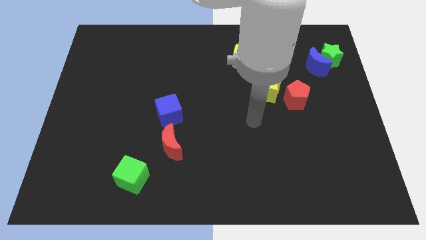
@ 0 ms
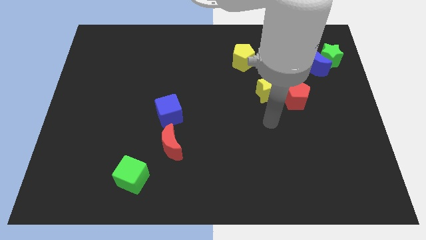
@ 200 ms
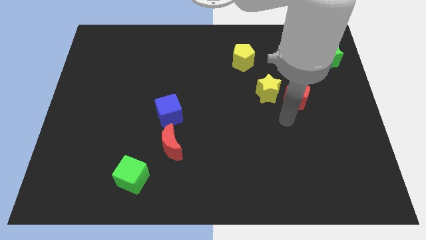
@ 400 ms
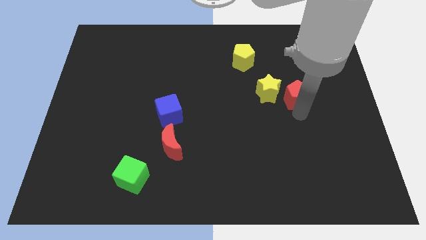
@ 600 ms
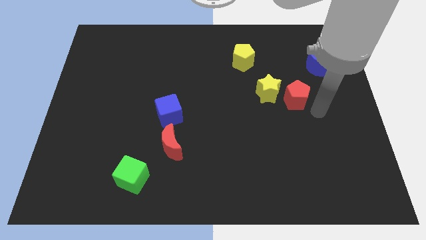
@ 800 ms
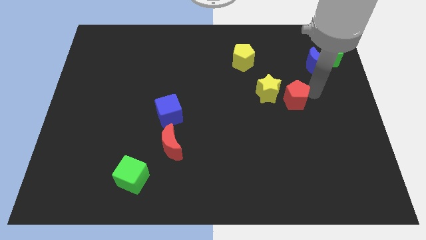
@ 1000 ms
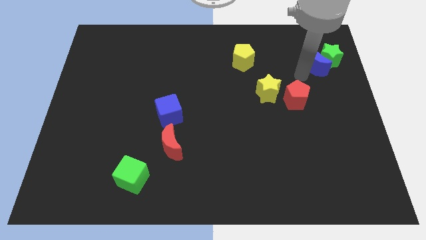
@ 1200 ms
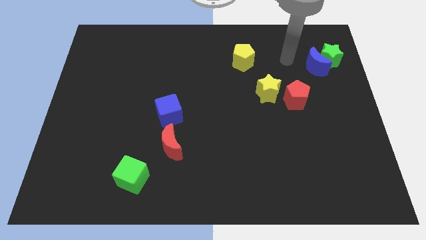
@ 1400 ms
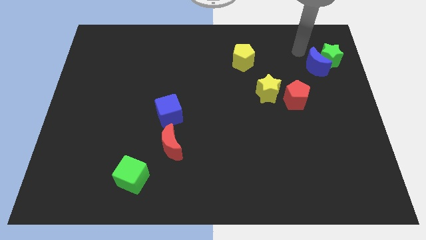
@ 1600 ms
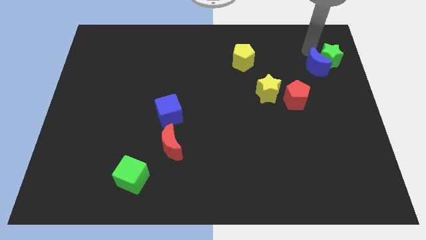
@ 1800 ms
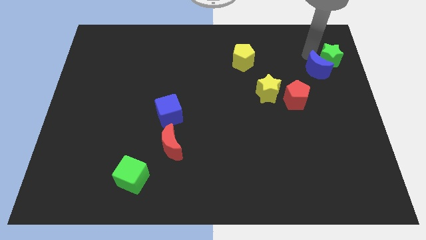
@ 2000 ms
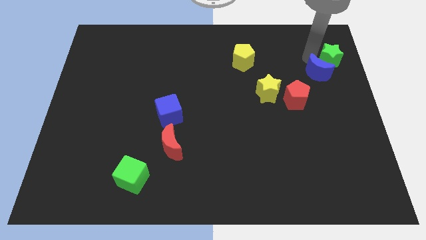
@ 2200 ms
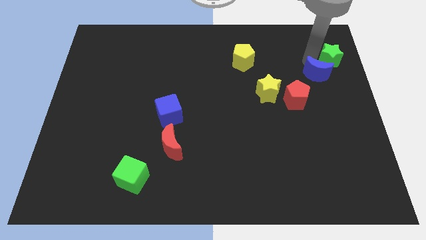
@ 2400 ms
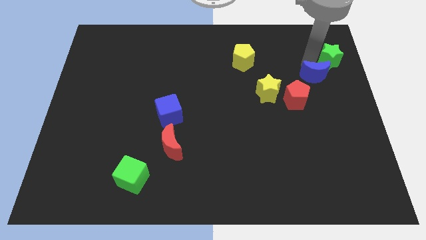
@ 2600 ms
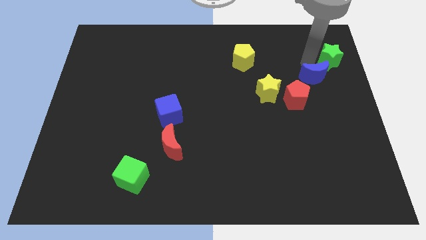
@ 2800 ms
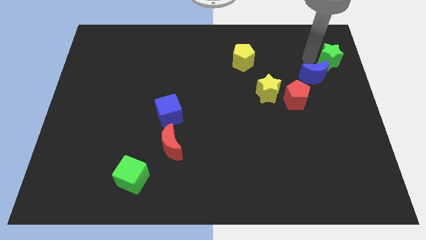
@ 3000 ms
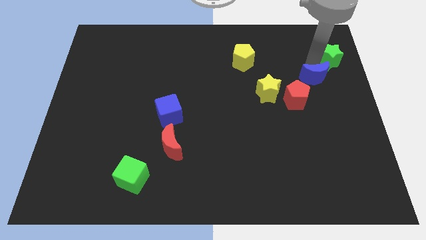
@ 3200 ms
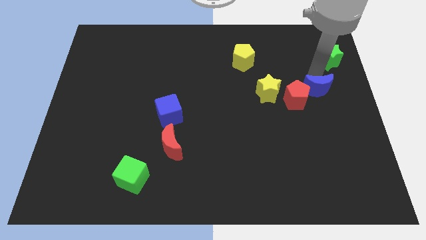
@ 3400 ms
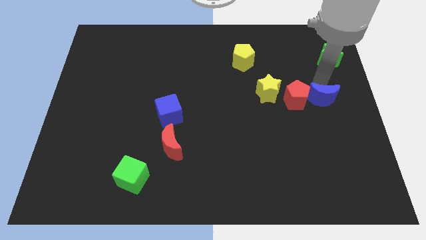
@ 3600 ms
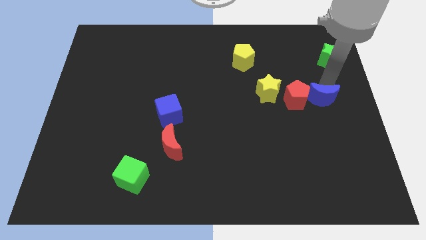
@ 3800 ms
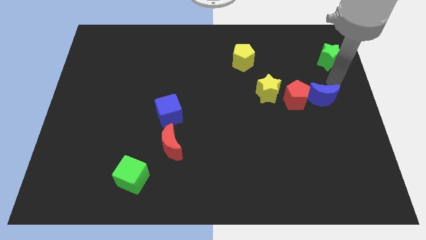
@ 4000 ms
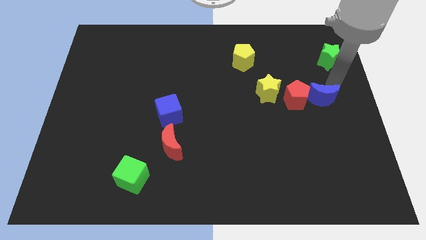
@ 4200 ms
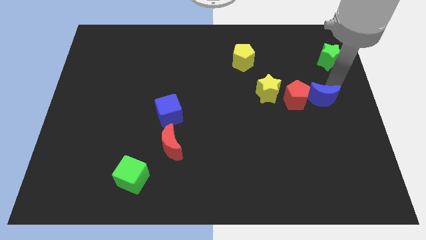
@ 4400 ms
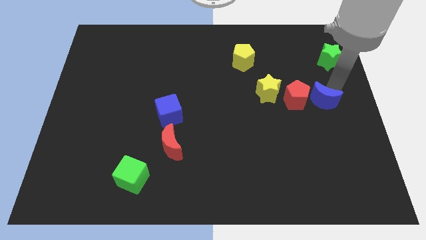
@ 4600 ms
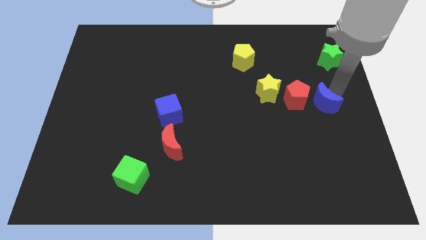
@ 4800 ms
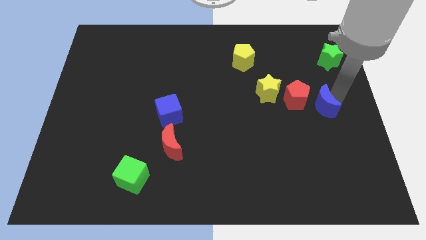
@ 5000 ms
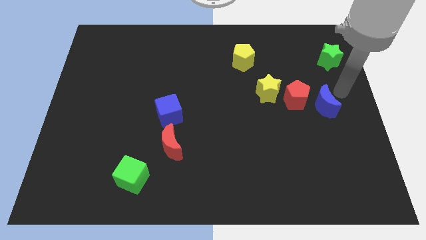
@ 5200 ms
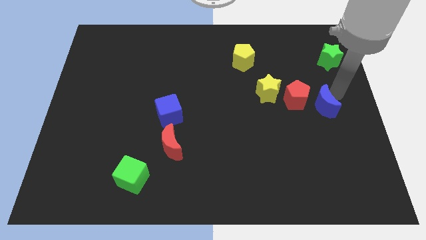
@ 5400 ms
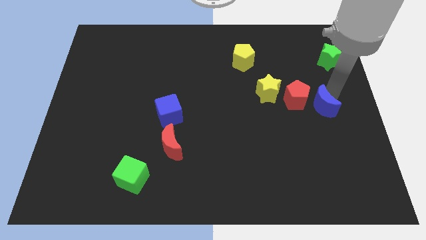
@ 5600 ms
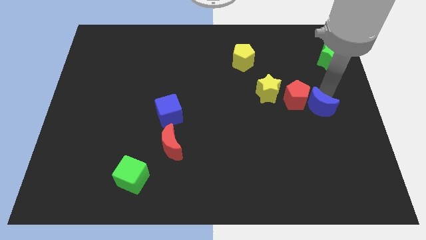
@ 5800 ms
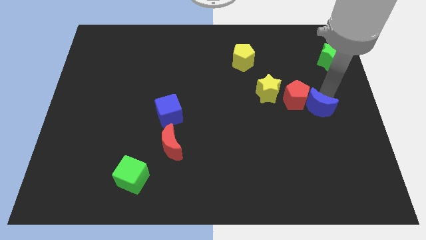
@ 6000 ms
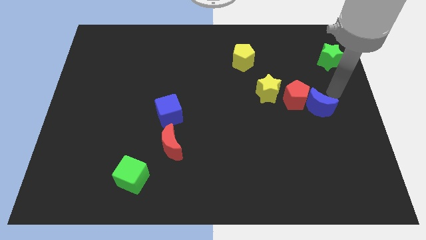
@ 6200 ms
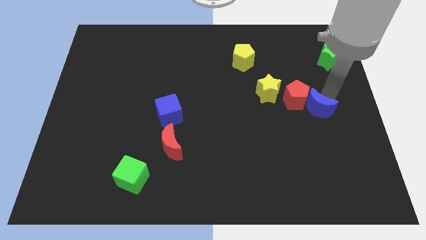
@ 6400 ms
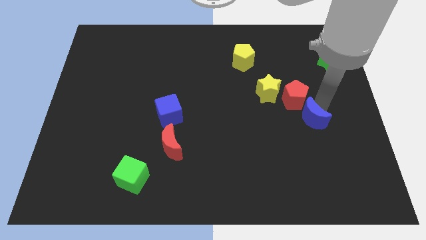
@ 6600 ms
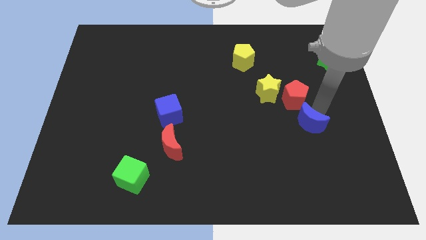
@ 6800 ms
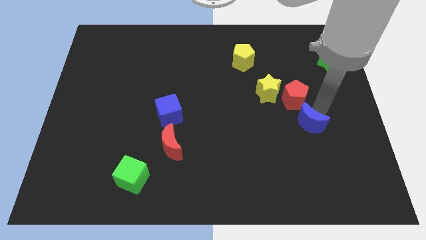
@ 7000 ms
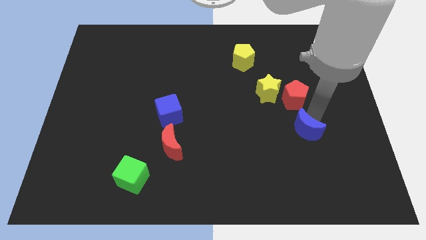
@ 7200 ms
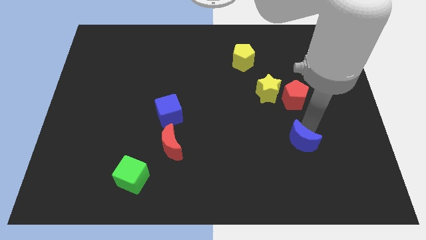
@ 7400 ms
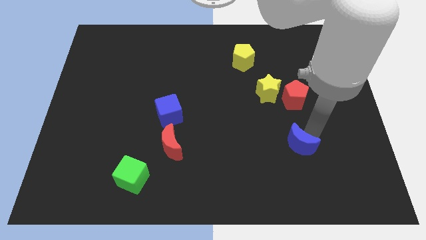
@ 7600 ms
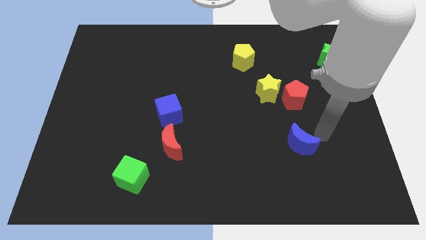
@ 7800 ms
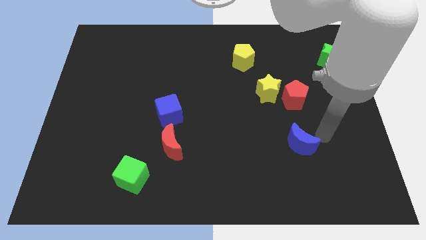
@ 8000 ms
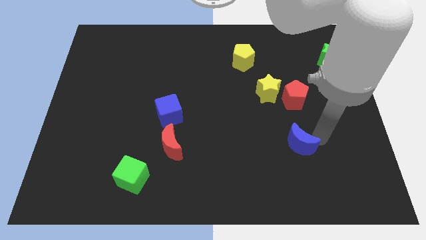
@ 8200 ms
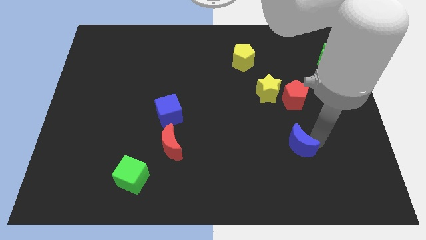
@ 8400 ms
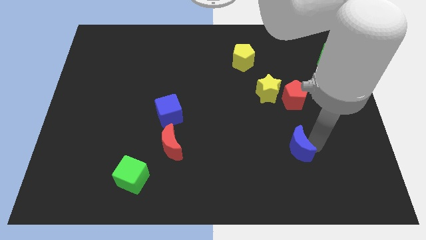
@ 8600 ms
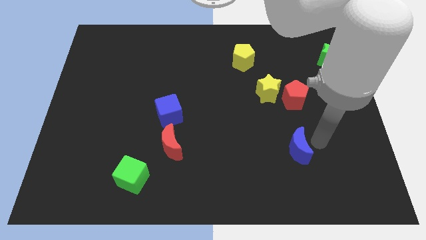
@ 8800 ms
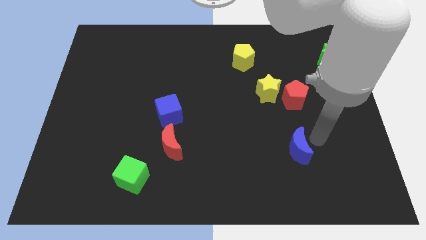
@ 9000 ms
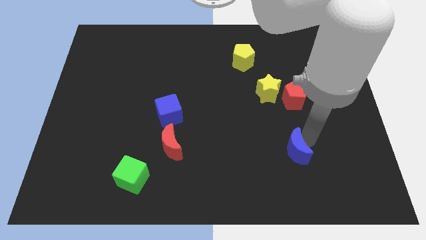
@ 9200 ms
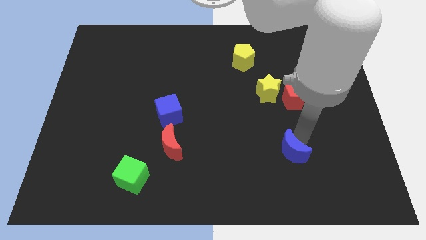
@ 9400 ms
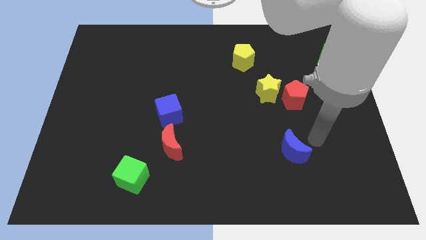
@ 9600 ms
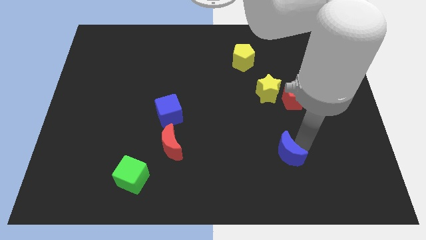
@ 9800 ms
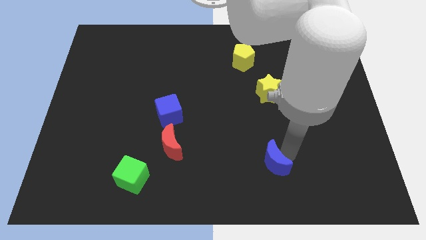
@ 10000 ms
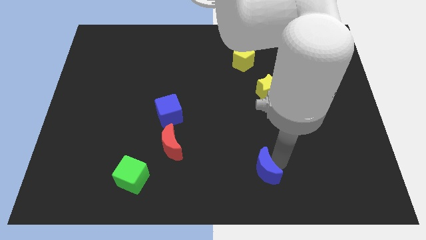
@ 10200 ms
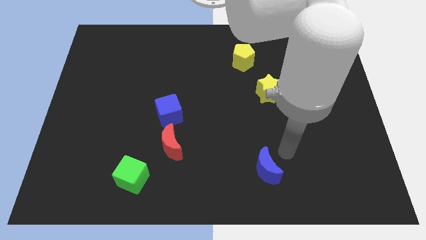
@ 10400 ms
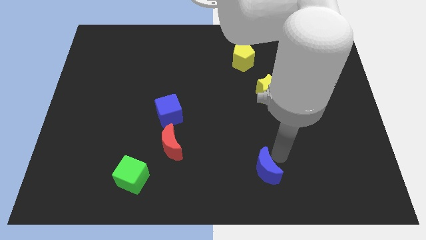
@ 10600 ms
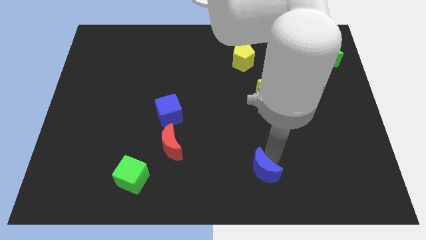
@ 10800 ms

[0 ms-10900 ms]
push the blue moon to the bottom

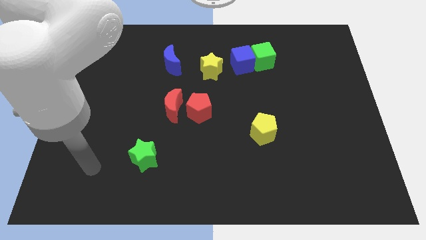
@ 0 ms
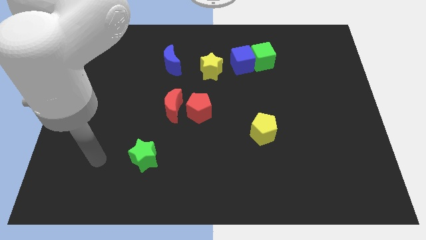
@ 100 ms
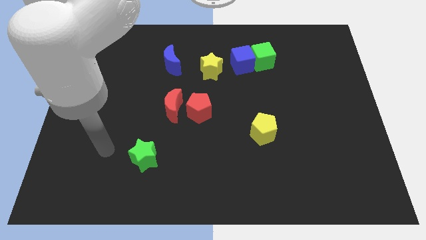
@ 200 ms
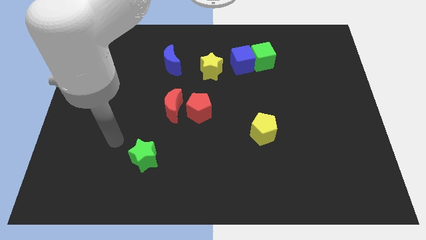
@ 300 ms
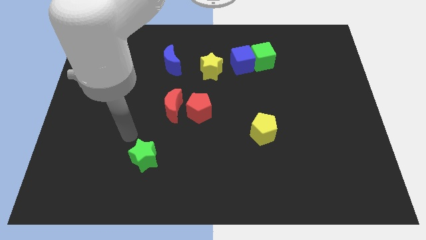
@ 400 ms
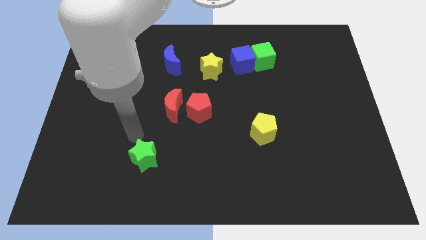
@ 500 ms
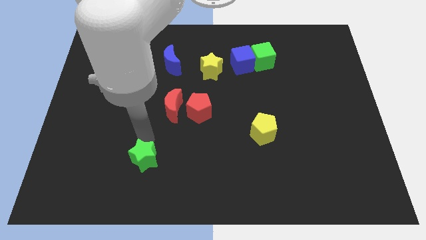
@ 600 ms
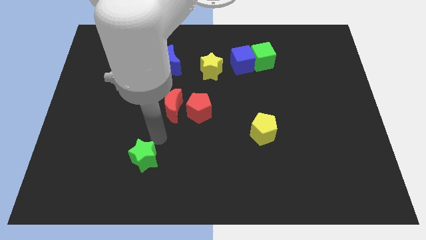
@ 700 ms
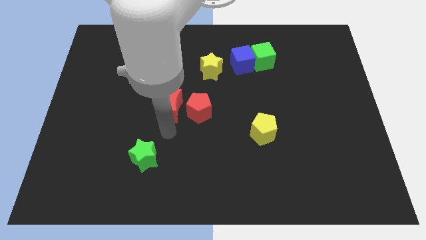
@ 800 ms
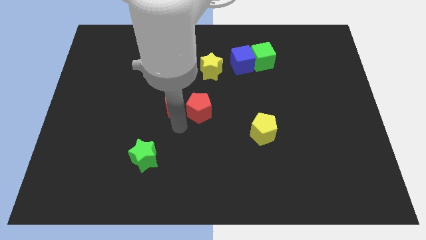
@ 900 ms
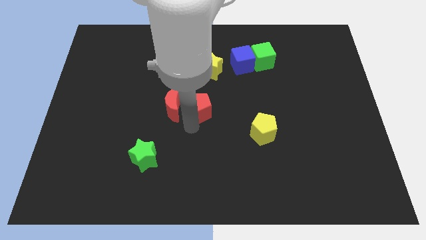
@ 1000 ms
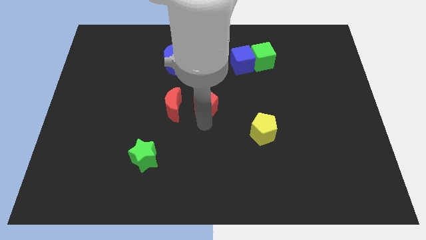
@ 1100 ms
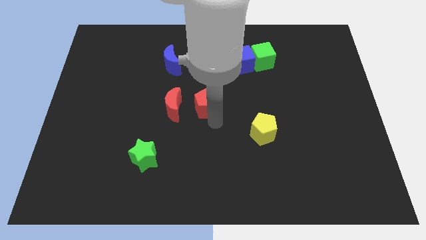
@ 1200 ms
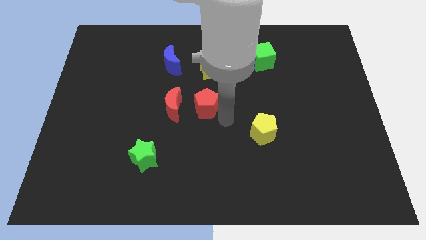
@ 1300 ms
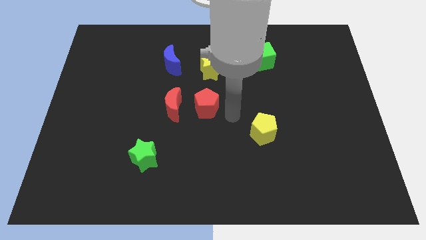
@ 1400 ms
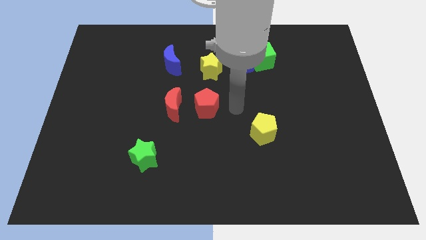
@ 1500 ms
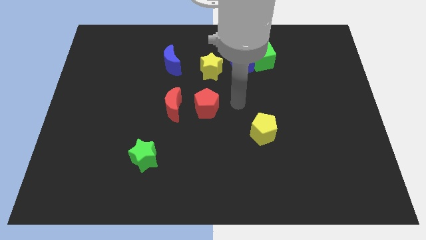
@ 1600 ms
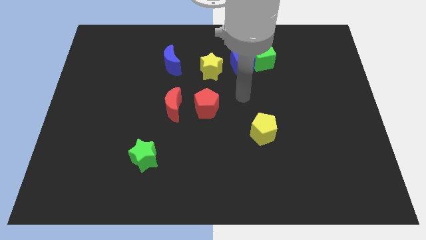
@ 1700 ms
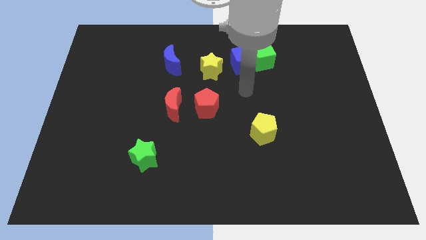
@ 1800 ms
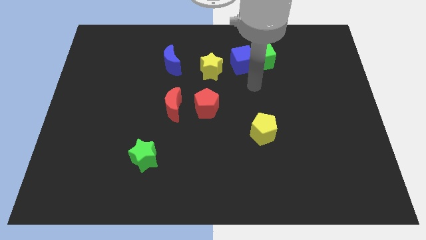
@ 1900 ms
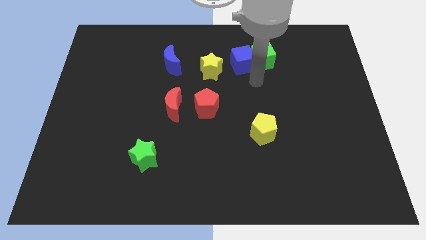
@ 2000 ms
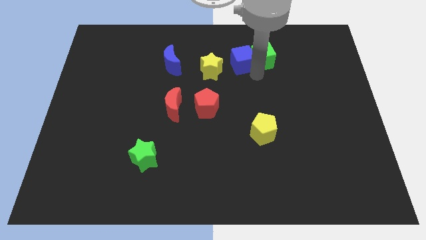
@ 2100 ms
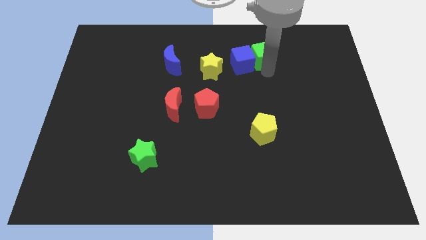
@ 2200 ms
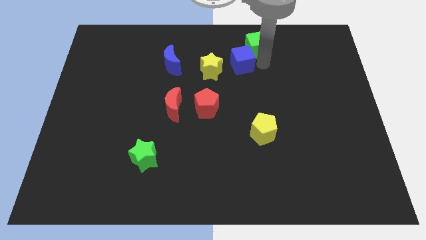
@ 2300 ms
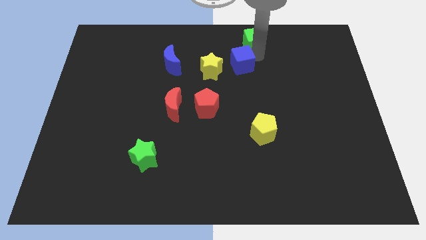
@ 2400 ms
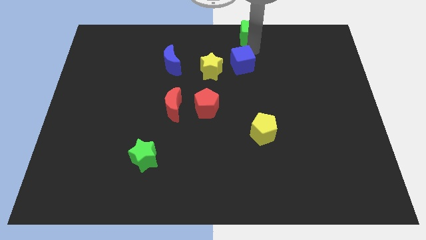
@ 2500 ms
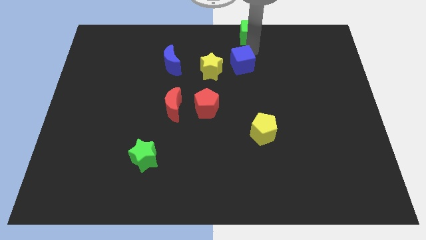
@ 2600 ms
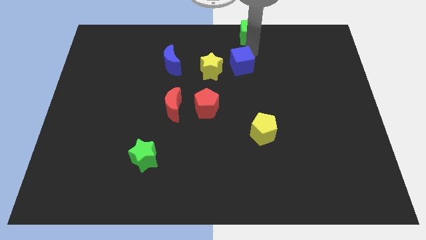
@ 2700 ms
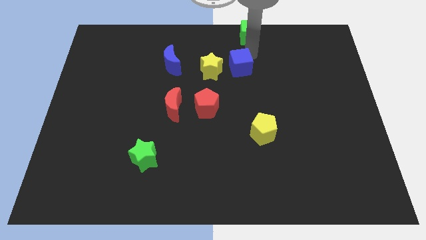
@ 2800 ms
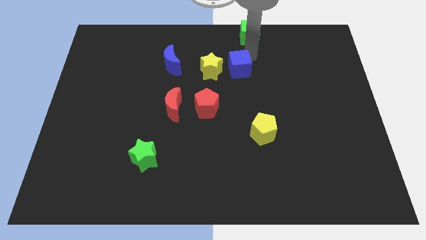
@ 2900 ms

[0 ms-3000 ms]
move the blue cube to the center
